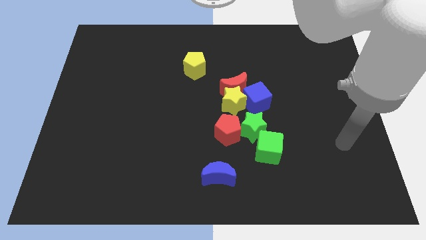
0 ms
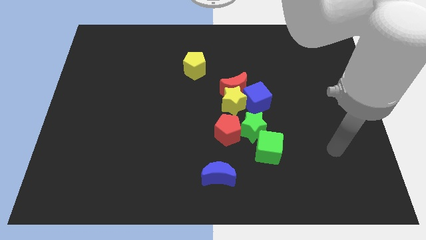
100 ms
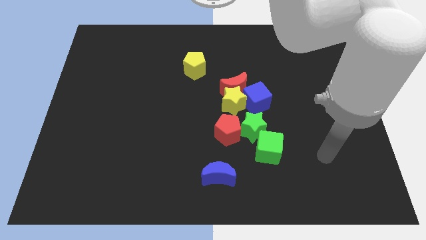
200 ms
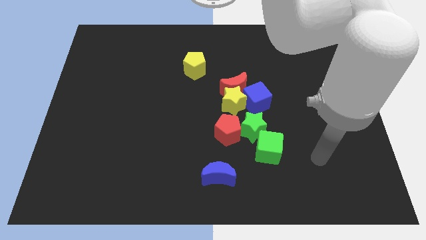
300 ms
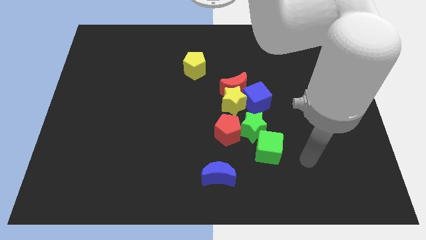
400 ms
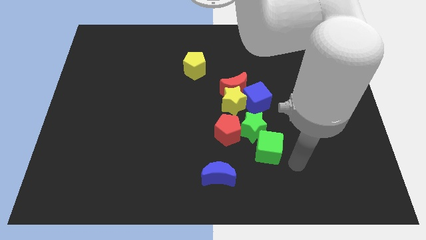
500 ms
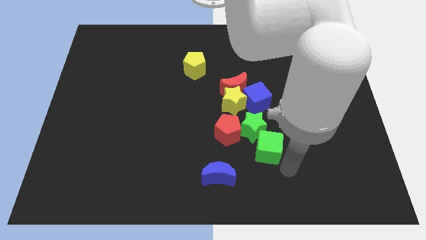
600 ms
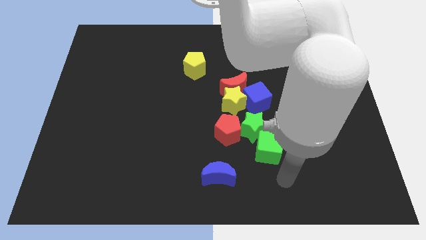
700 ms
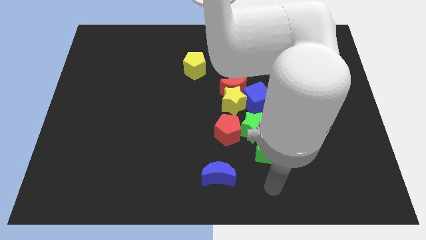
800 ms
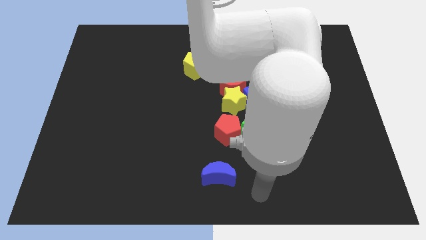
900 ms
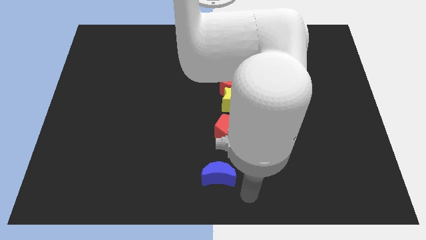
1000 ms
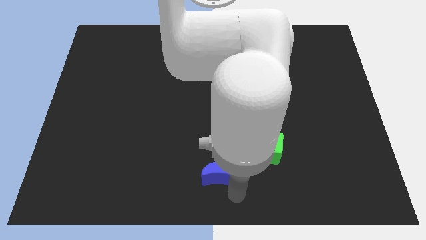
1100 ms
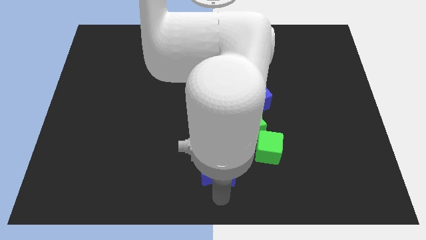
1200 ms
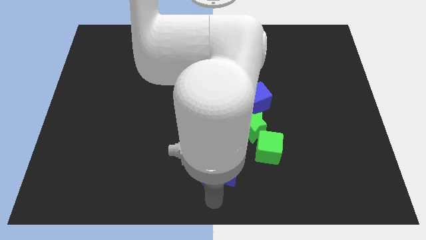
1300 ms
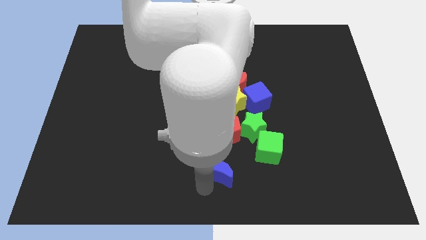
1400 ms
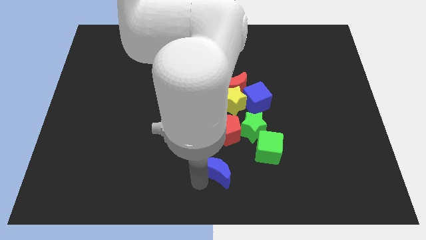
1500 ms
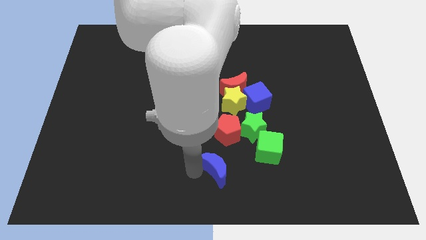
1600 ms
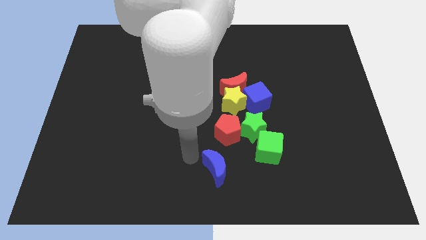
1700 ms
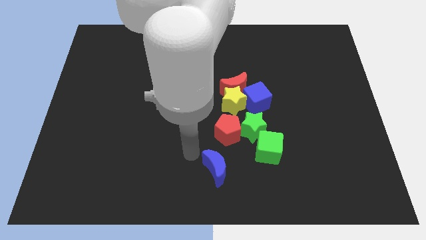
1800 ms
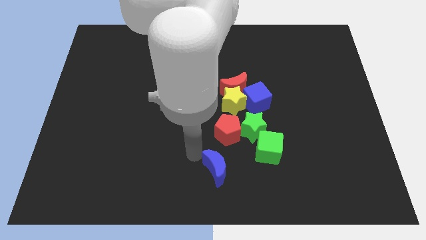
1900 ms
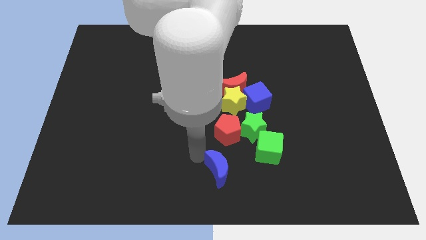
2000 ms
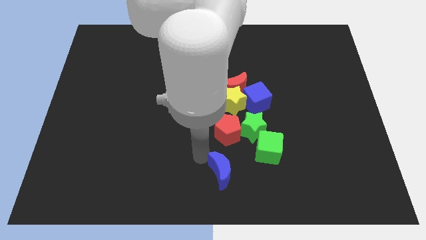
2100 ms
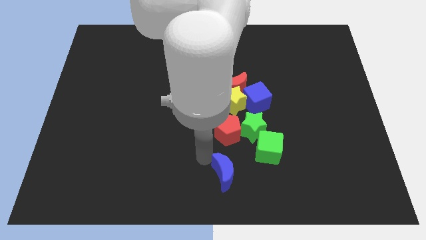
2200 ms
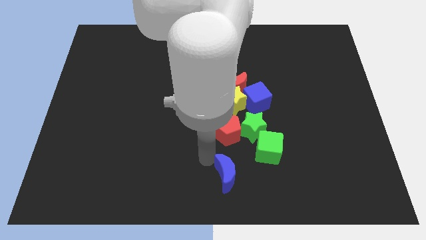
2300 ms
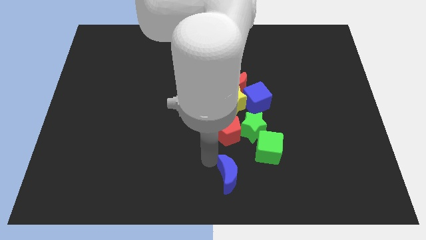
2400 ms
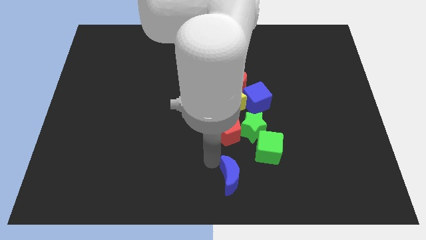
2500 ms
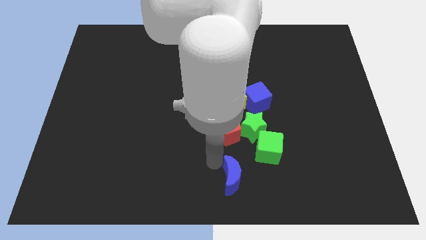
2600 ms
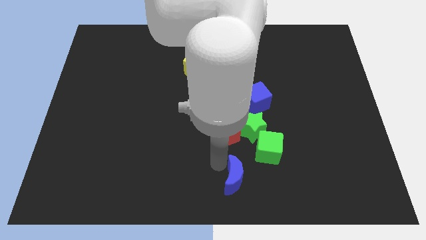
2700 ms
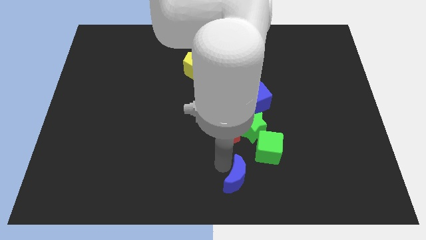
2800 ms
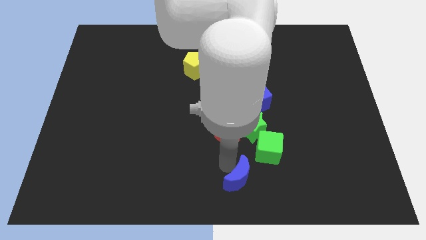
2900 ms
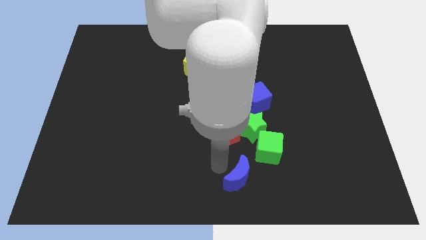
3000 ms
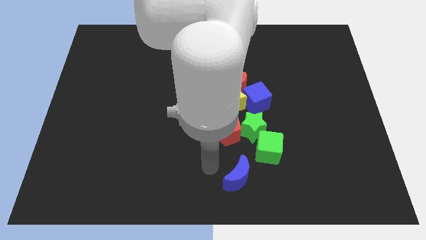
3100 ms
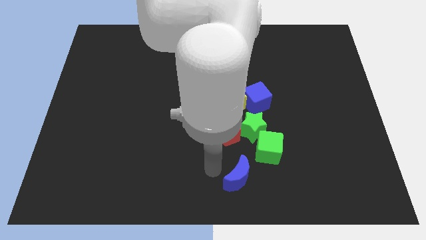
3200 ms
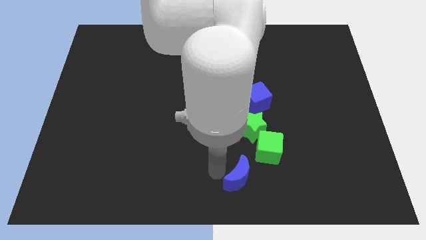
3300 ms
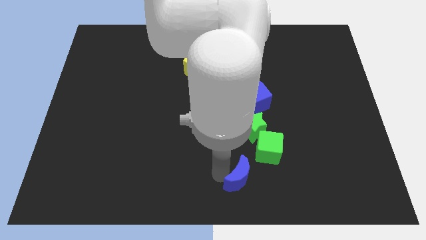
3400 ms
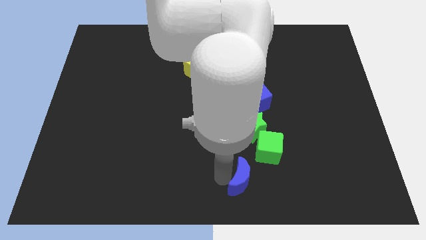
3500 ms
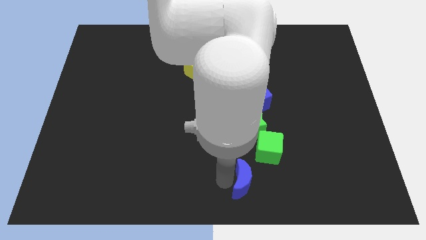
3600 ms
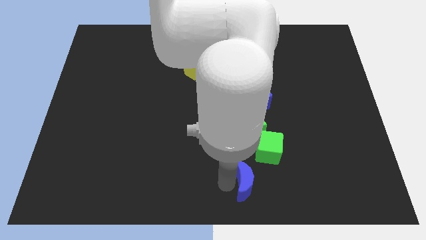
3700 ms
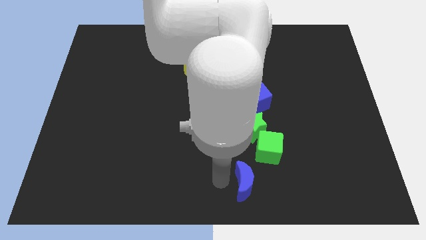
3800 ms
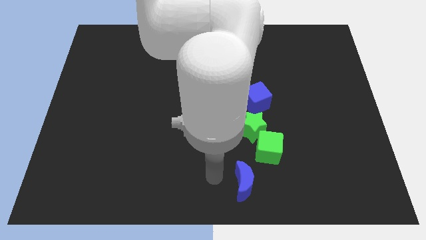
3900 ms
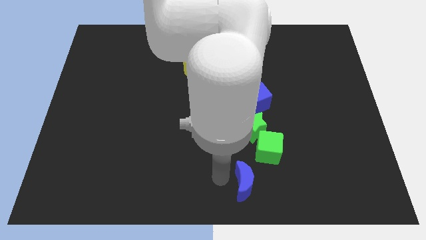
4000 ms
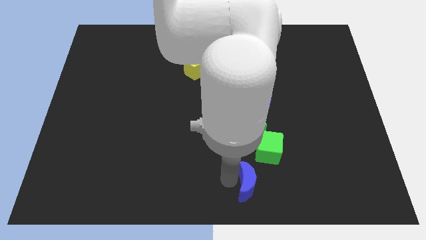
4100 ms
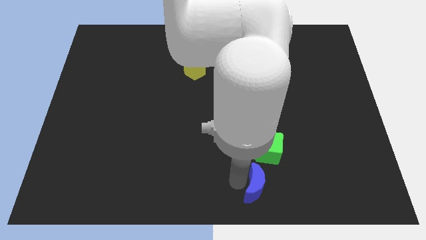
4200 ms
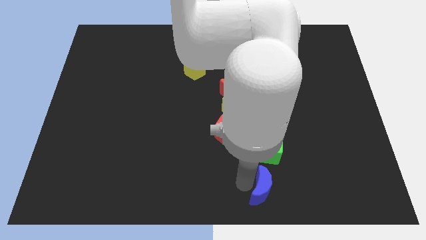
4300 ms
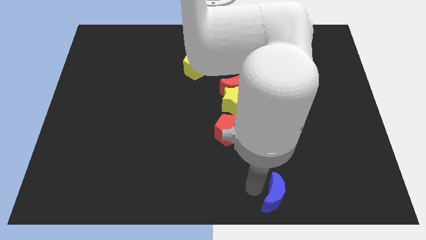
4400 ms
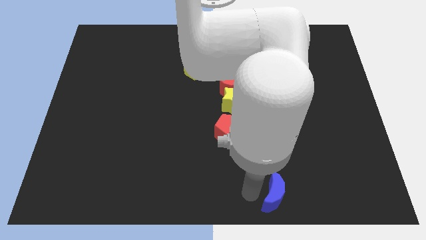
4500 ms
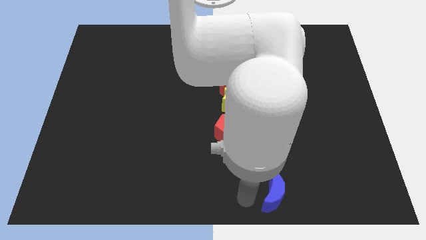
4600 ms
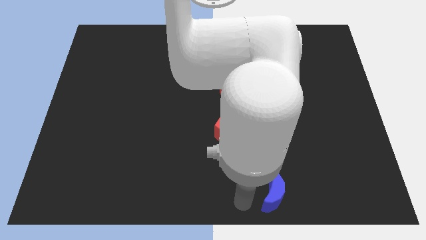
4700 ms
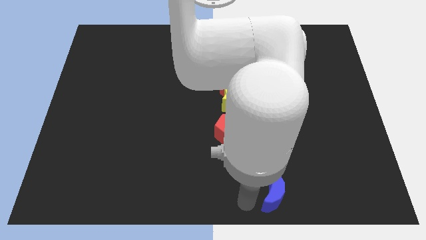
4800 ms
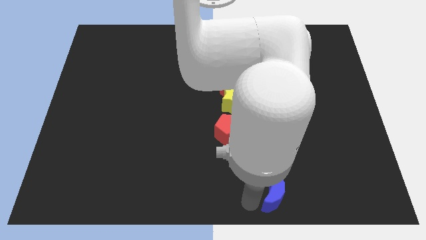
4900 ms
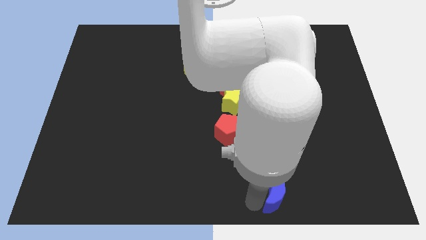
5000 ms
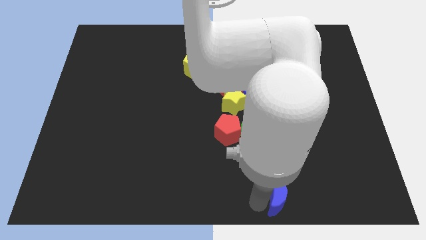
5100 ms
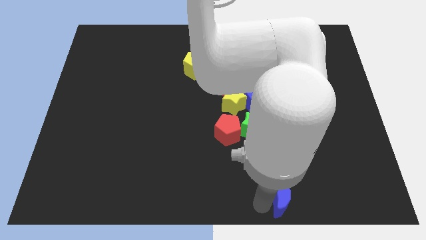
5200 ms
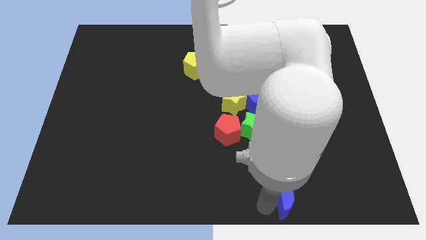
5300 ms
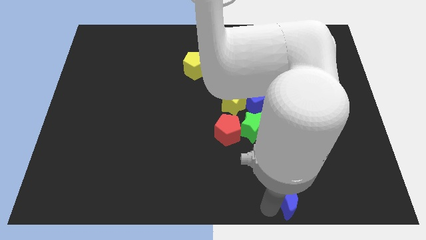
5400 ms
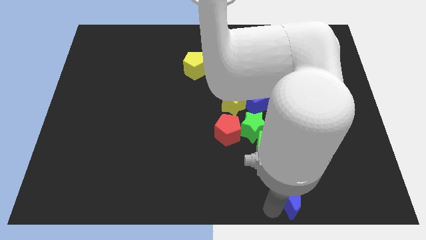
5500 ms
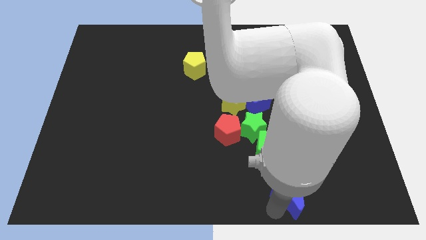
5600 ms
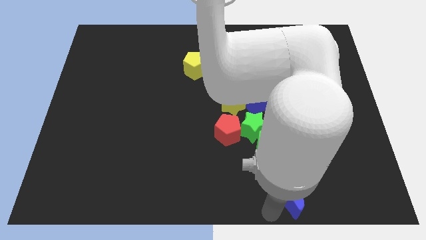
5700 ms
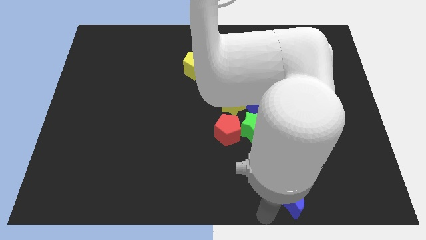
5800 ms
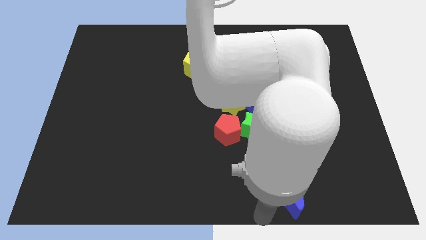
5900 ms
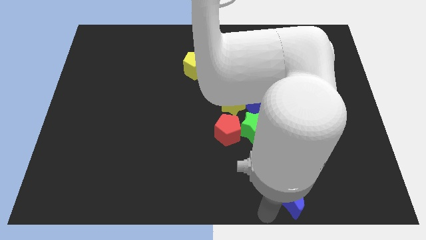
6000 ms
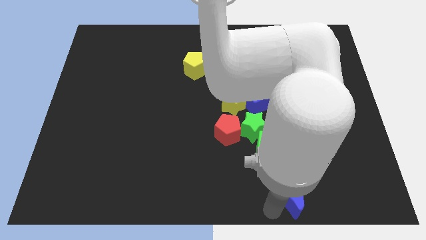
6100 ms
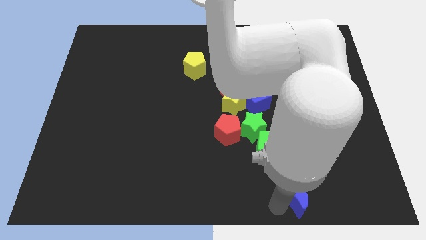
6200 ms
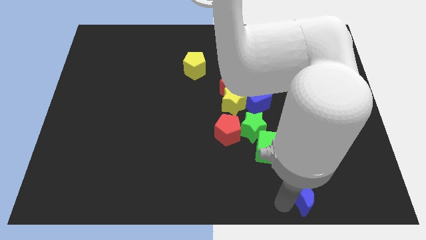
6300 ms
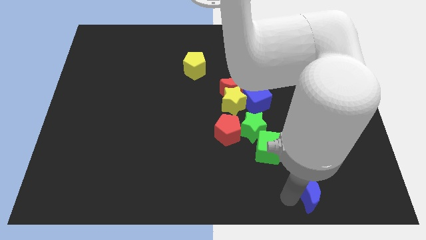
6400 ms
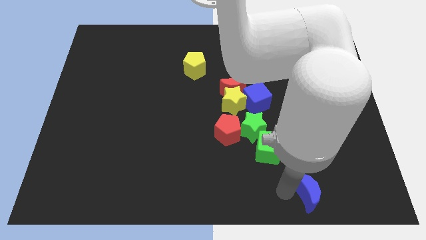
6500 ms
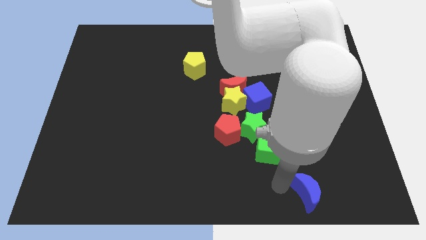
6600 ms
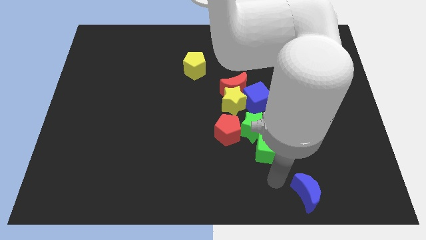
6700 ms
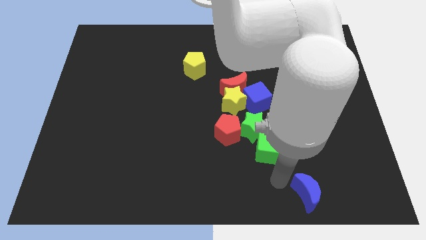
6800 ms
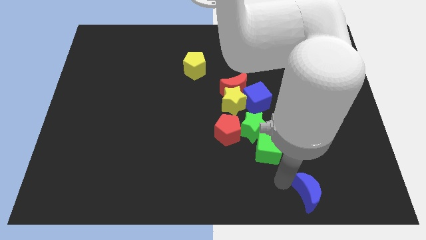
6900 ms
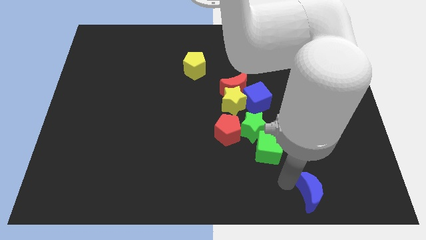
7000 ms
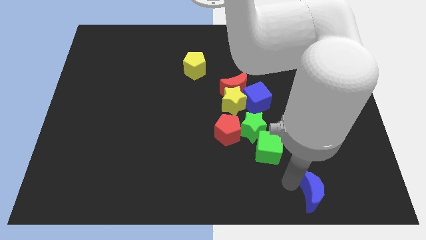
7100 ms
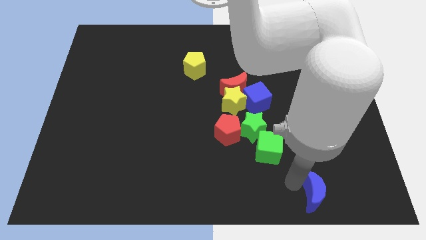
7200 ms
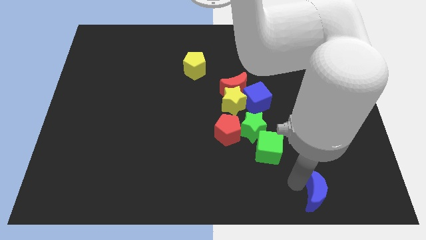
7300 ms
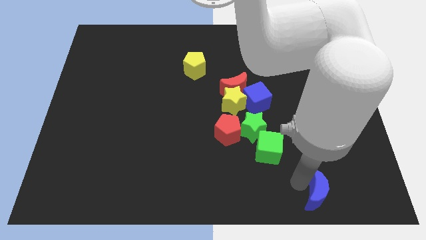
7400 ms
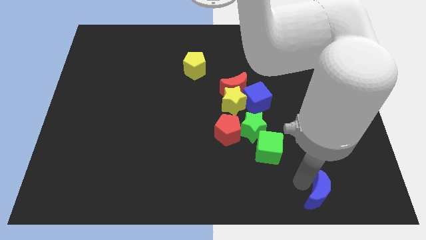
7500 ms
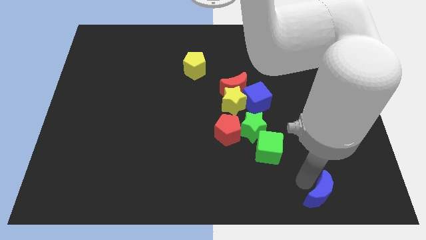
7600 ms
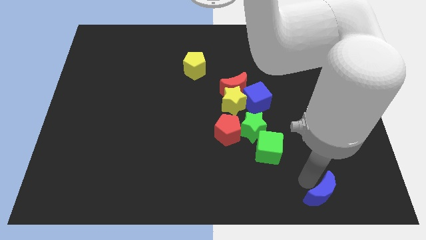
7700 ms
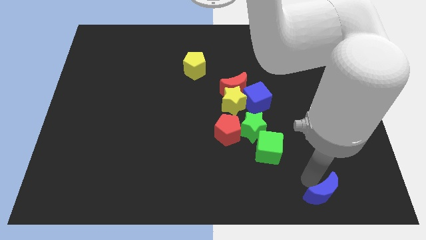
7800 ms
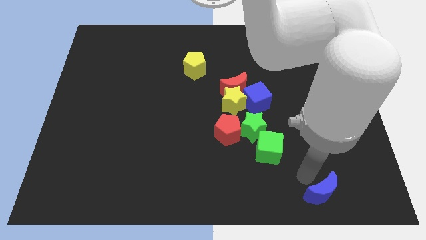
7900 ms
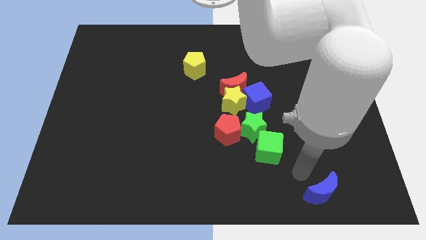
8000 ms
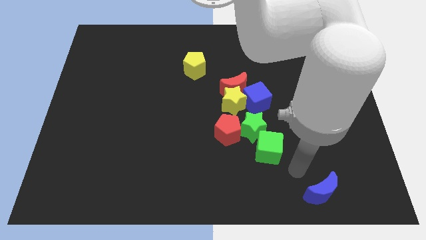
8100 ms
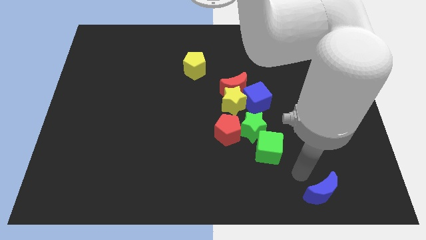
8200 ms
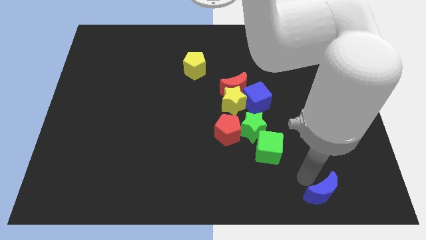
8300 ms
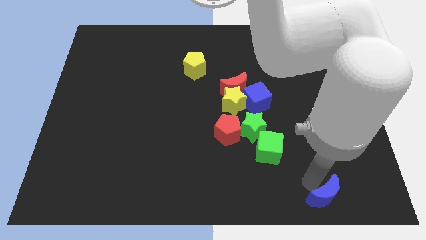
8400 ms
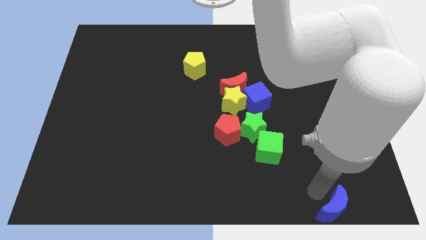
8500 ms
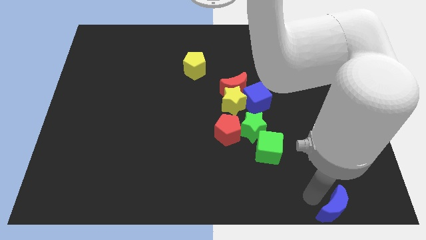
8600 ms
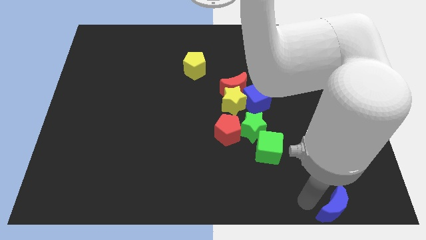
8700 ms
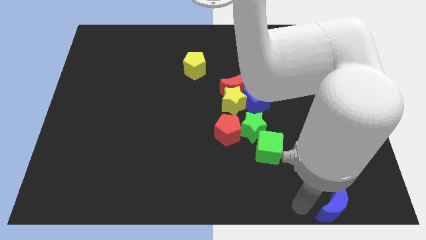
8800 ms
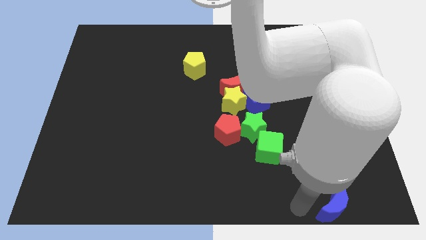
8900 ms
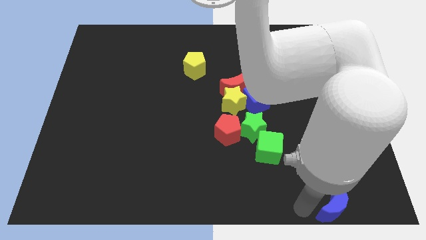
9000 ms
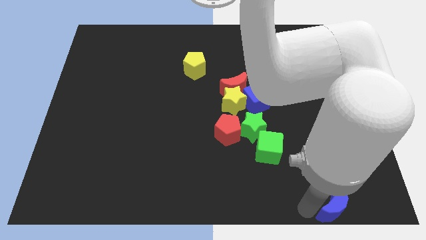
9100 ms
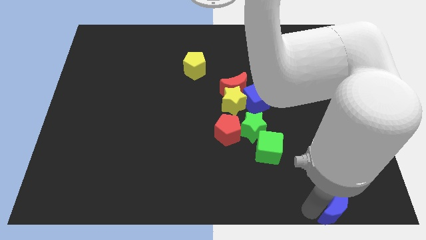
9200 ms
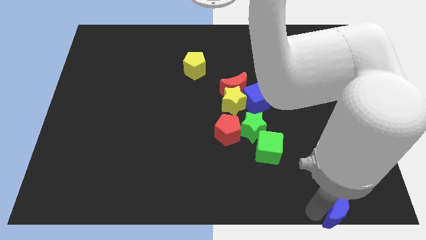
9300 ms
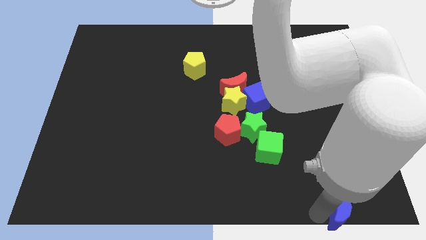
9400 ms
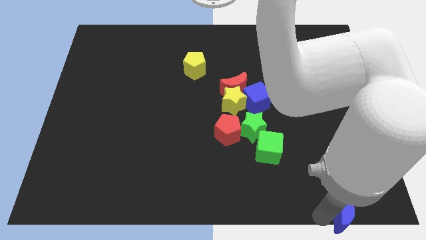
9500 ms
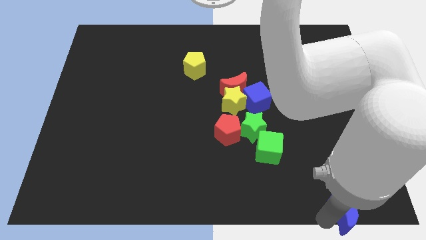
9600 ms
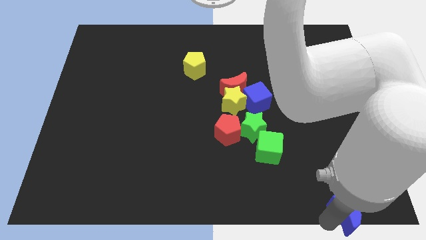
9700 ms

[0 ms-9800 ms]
slide the blue moon to the bottom right corner
